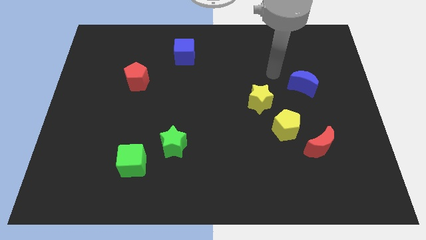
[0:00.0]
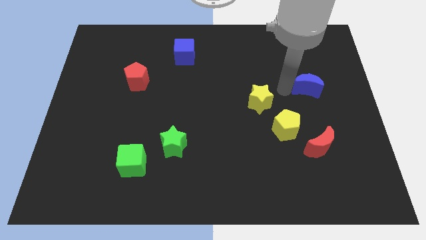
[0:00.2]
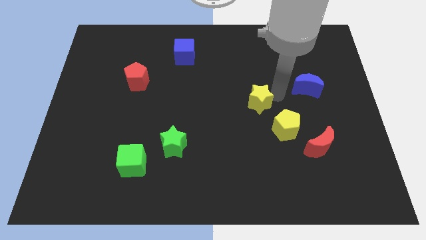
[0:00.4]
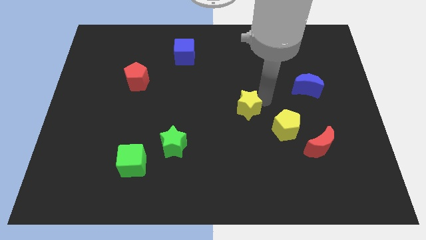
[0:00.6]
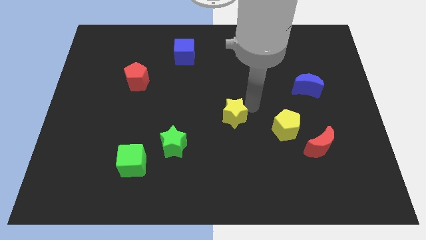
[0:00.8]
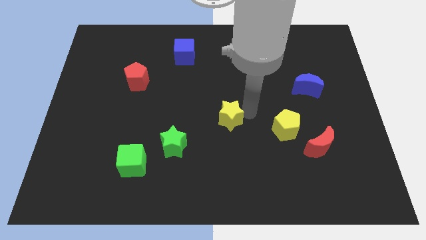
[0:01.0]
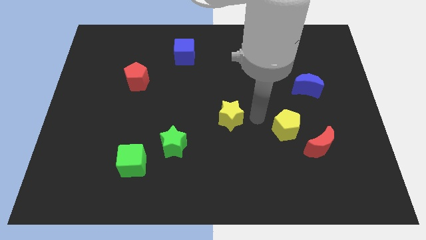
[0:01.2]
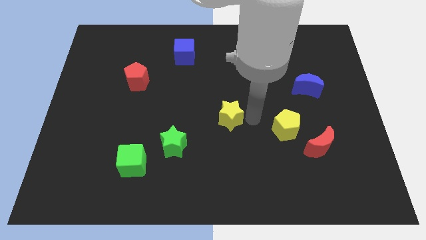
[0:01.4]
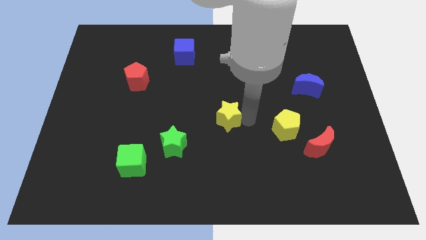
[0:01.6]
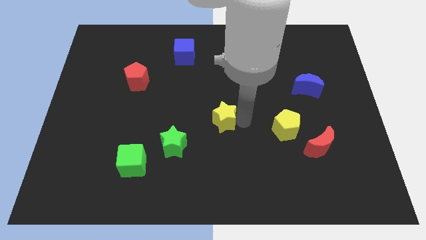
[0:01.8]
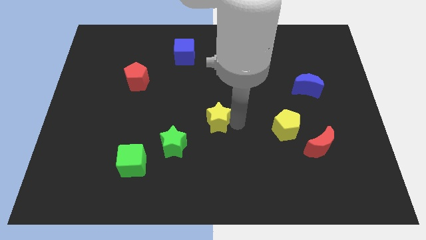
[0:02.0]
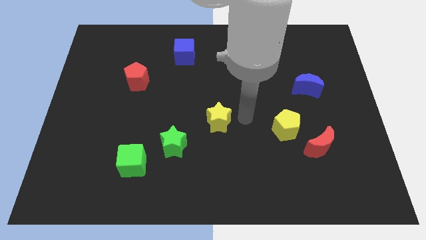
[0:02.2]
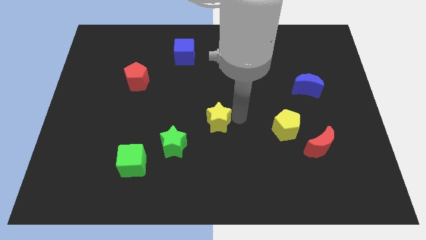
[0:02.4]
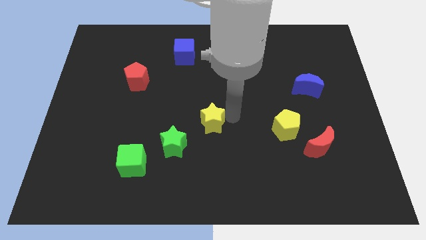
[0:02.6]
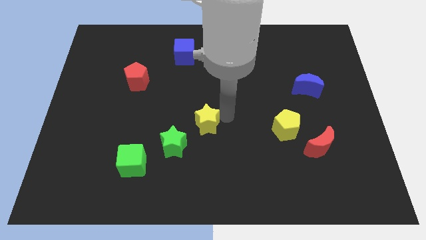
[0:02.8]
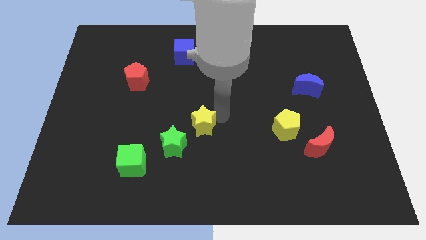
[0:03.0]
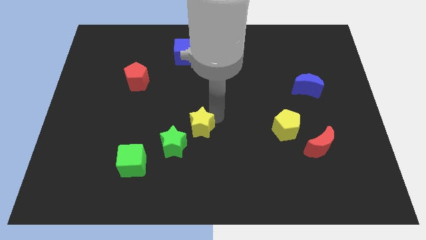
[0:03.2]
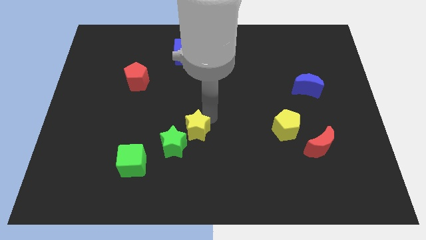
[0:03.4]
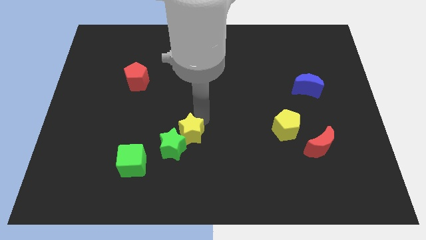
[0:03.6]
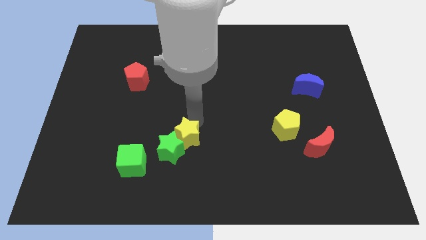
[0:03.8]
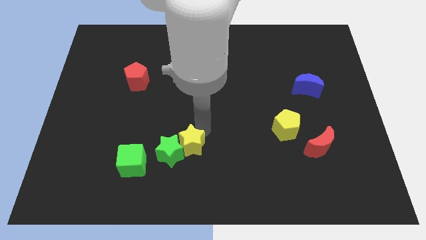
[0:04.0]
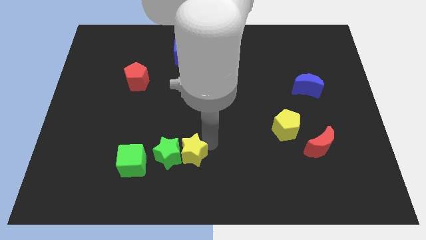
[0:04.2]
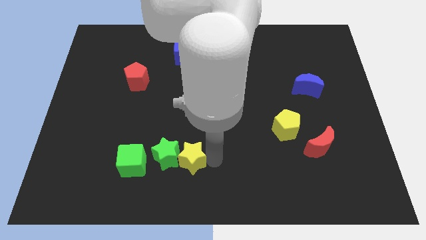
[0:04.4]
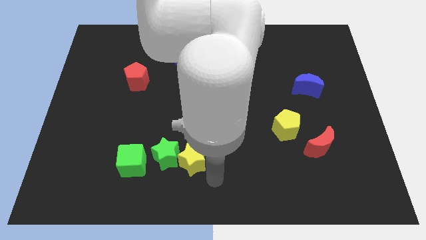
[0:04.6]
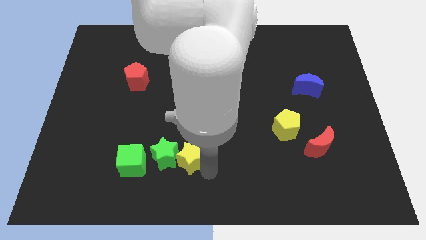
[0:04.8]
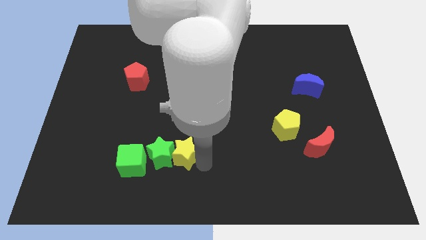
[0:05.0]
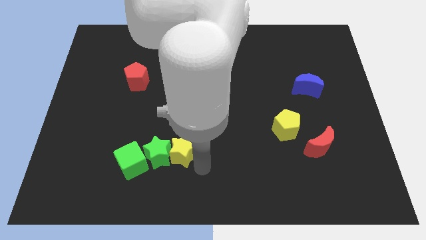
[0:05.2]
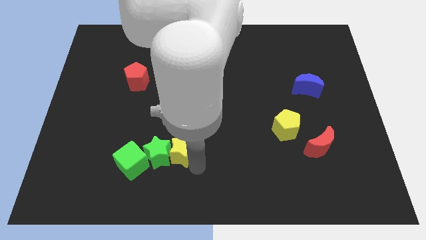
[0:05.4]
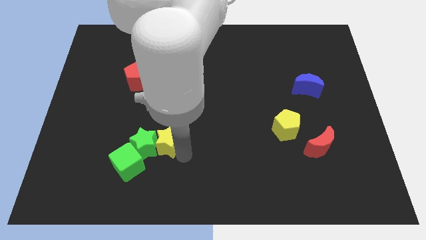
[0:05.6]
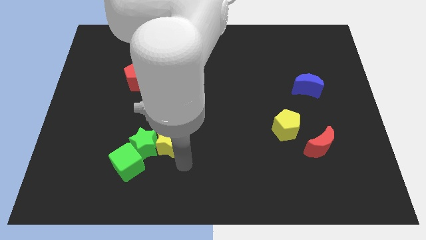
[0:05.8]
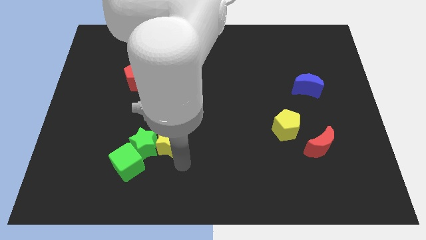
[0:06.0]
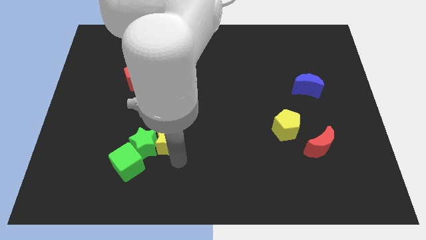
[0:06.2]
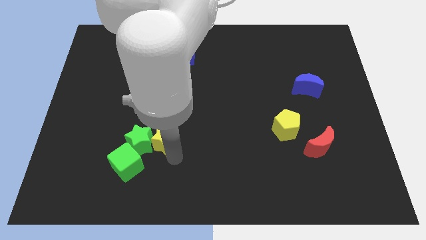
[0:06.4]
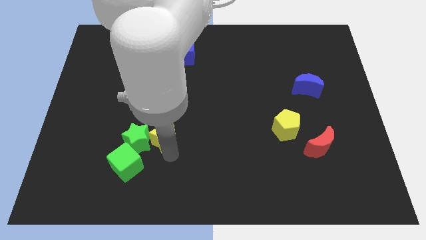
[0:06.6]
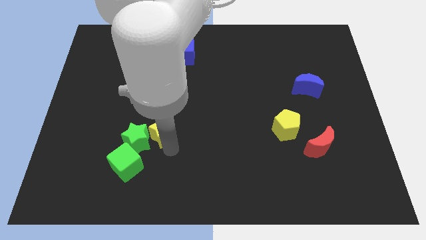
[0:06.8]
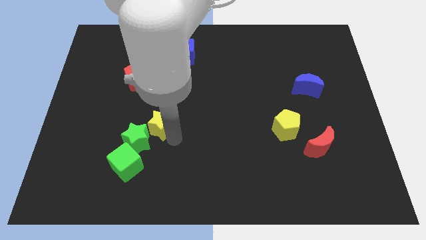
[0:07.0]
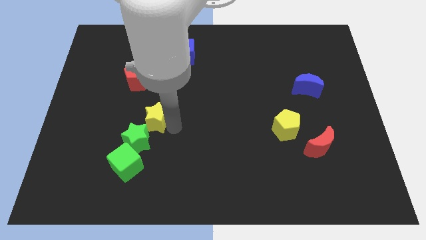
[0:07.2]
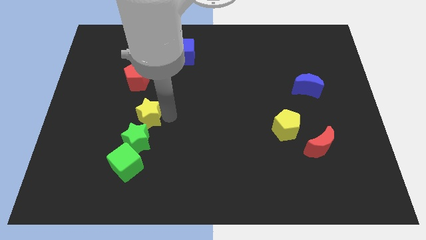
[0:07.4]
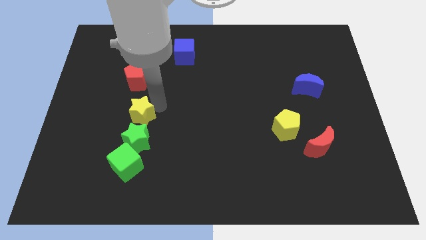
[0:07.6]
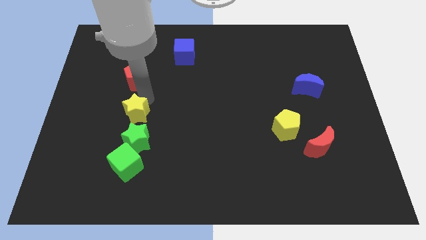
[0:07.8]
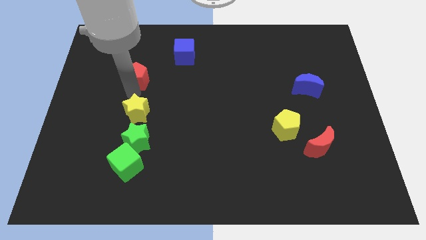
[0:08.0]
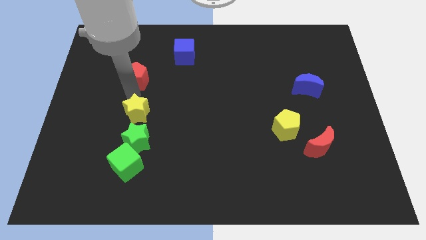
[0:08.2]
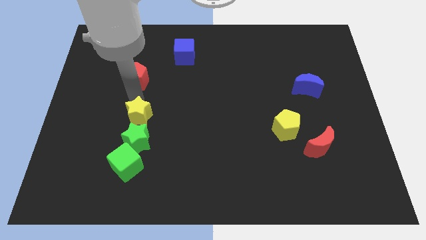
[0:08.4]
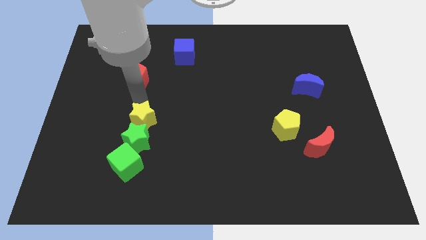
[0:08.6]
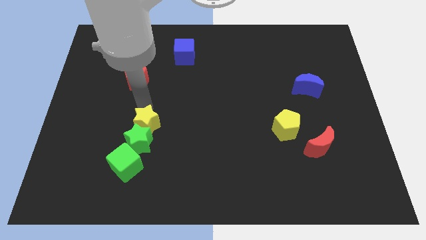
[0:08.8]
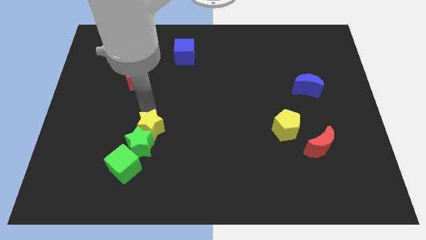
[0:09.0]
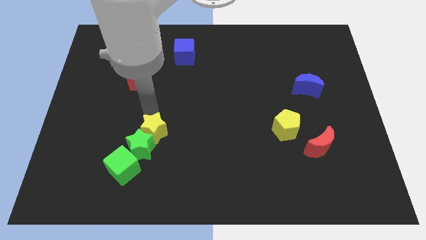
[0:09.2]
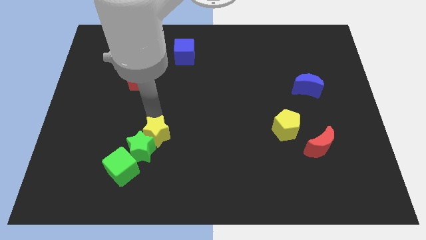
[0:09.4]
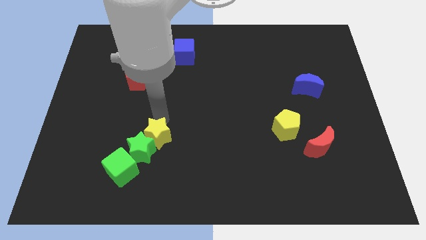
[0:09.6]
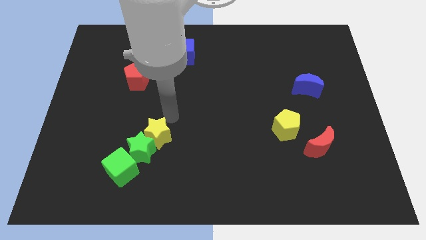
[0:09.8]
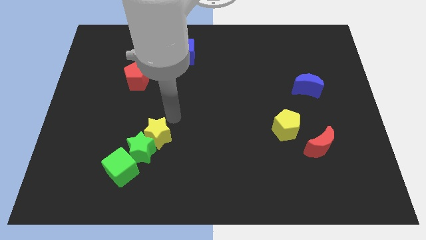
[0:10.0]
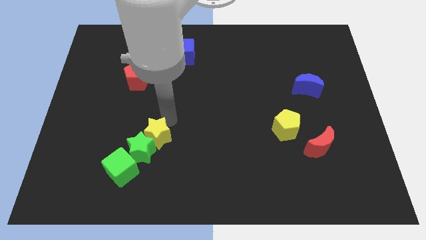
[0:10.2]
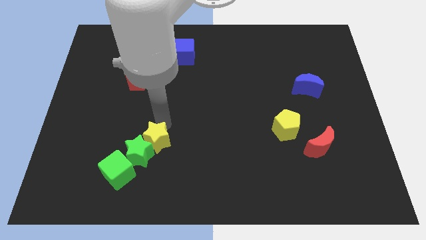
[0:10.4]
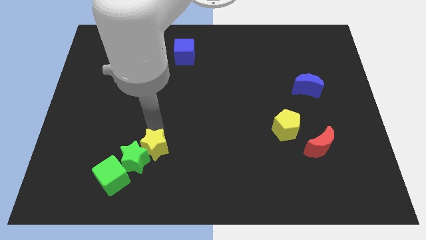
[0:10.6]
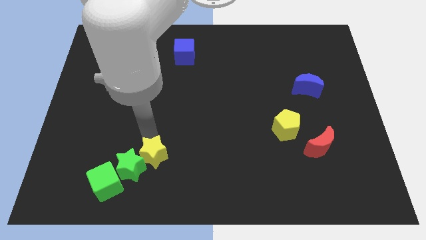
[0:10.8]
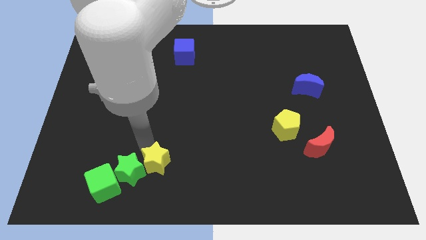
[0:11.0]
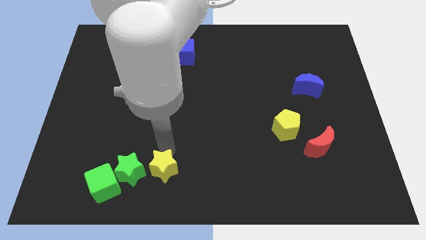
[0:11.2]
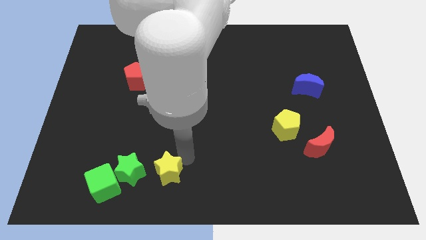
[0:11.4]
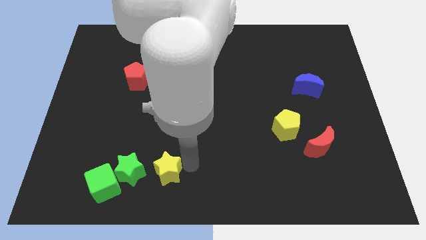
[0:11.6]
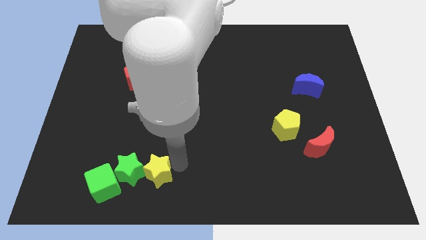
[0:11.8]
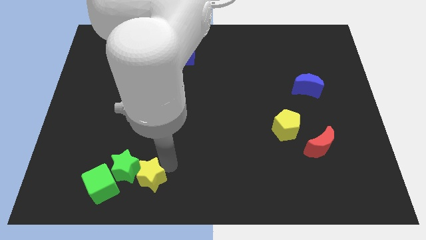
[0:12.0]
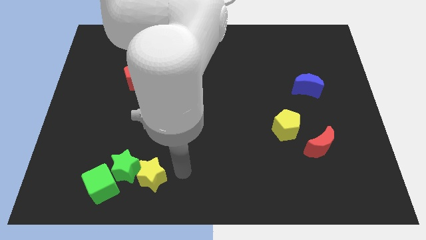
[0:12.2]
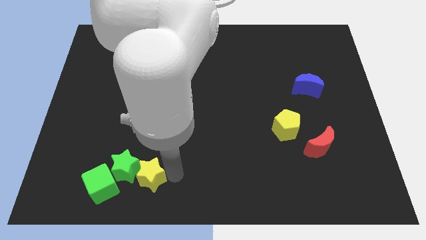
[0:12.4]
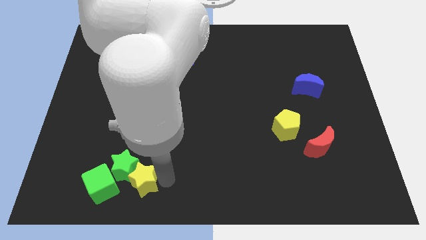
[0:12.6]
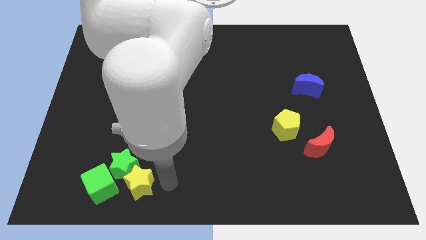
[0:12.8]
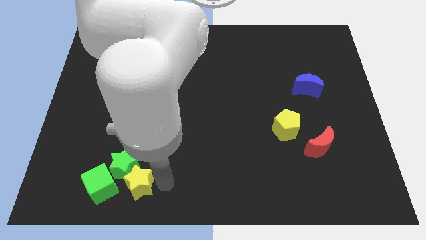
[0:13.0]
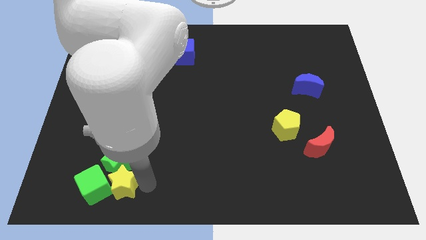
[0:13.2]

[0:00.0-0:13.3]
slide the yellow star close to the green cube

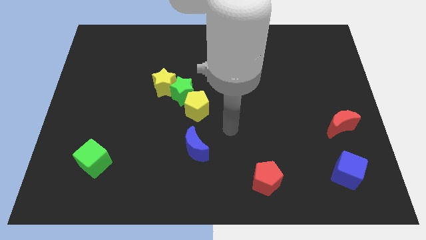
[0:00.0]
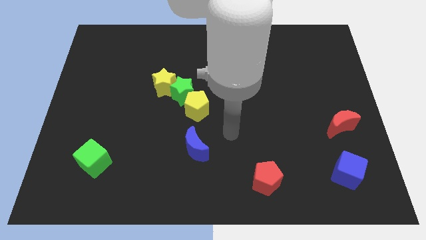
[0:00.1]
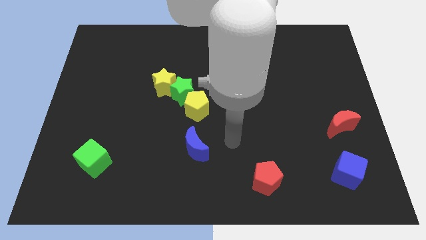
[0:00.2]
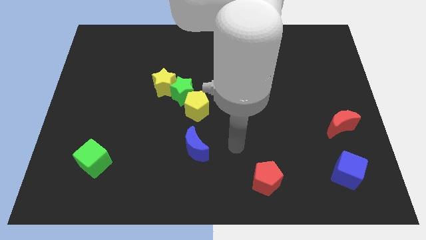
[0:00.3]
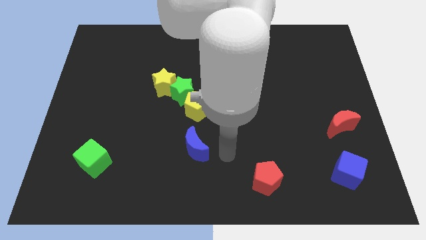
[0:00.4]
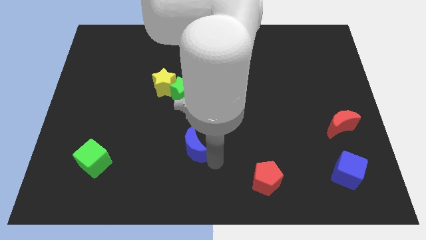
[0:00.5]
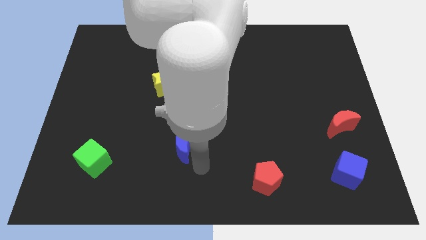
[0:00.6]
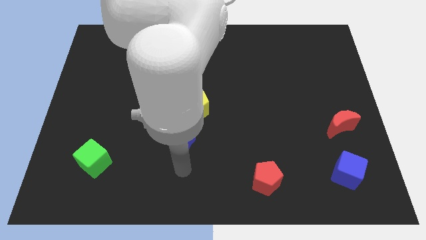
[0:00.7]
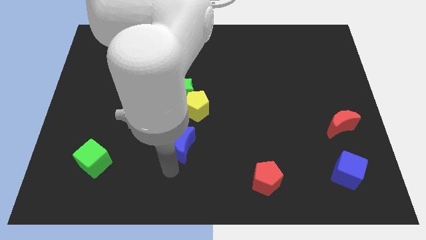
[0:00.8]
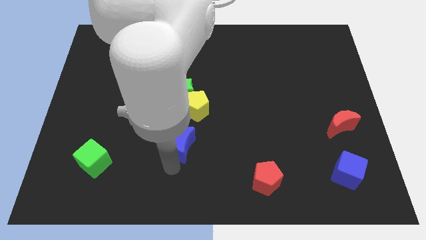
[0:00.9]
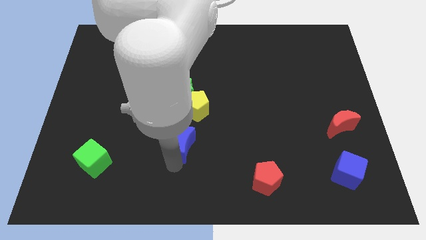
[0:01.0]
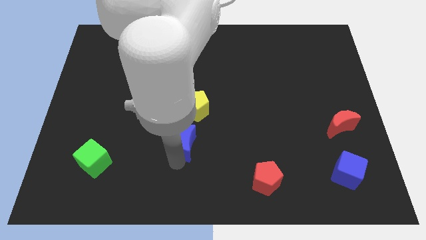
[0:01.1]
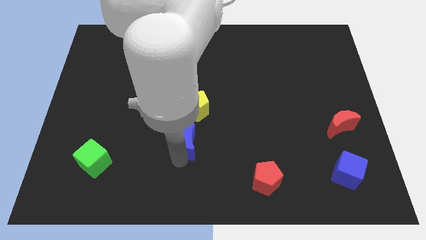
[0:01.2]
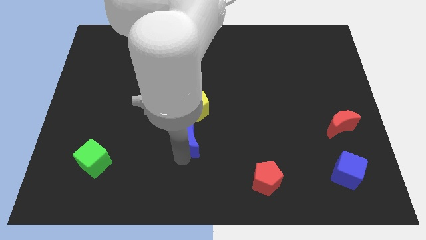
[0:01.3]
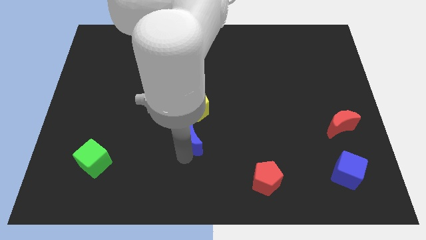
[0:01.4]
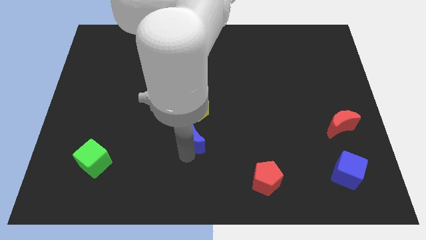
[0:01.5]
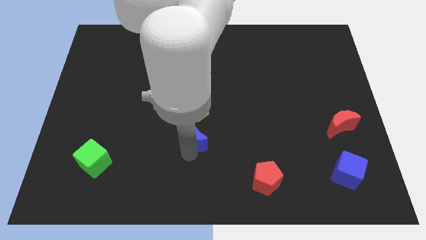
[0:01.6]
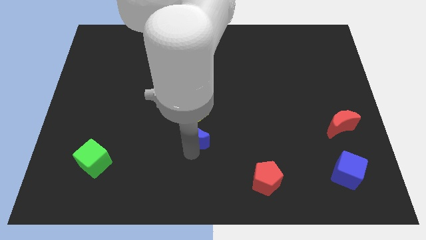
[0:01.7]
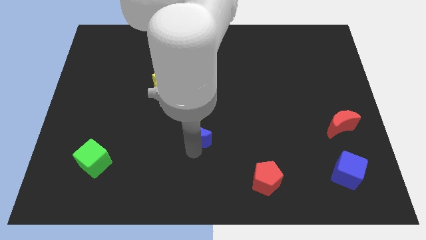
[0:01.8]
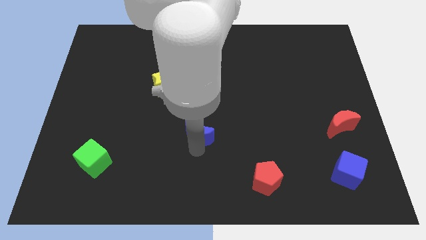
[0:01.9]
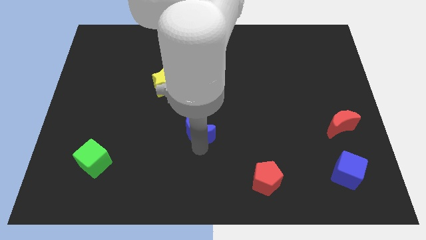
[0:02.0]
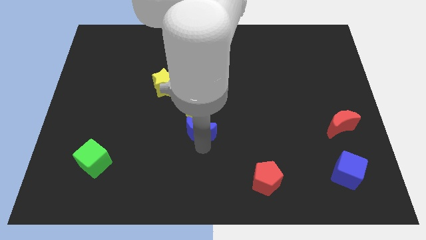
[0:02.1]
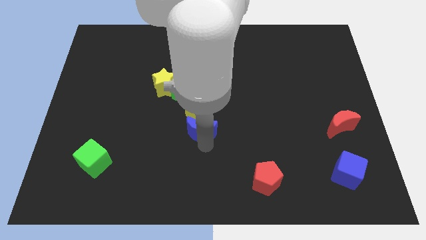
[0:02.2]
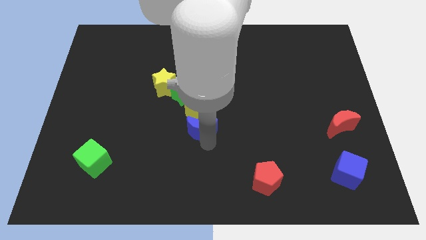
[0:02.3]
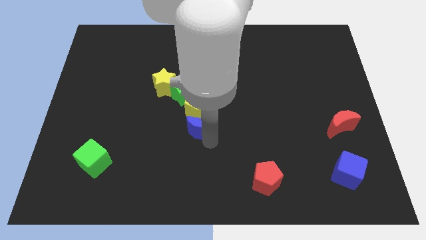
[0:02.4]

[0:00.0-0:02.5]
push the blue moon close to the yellow pentagon
